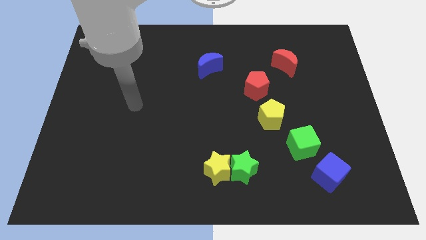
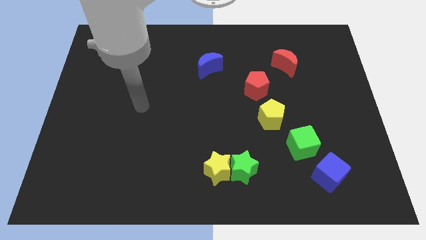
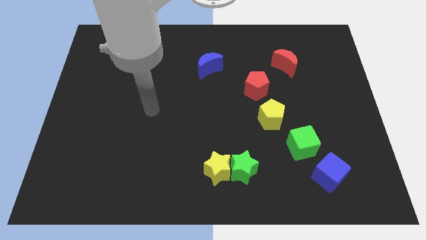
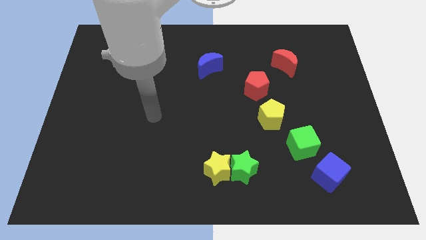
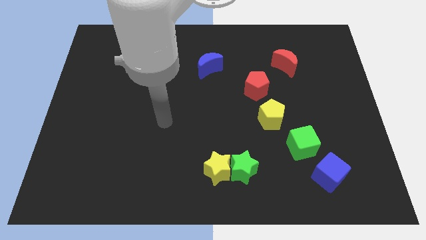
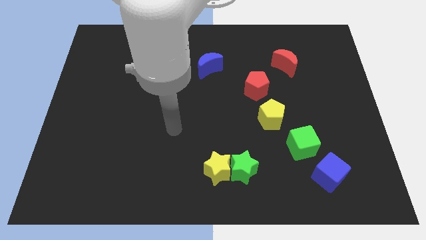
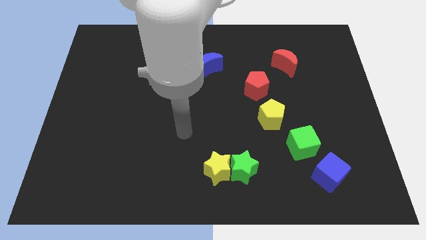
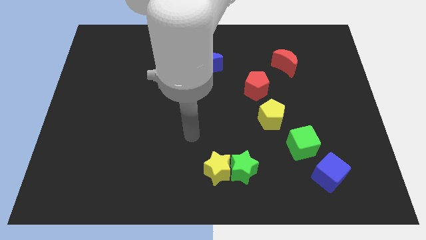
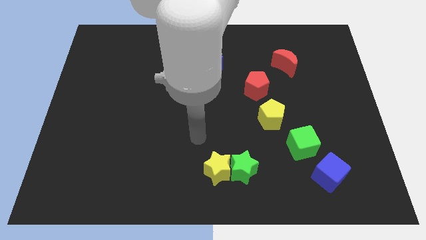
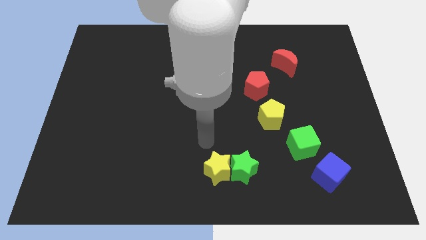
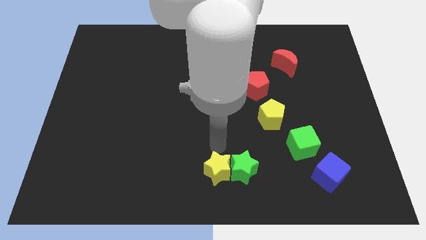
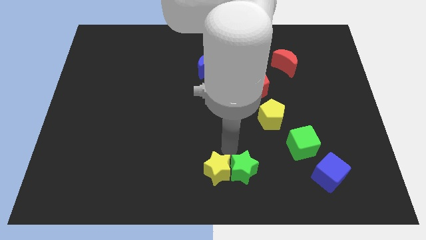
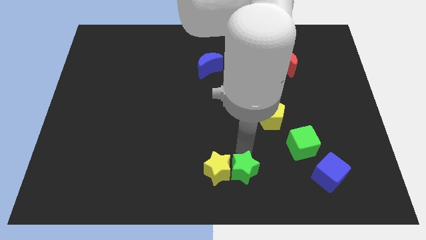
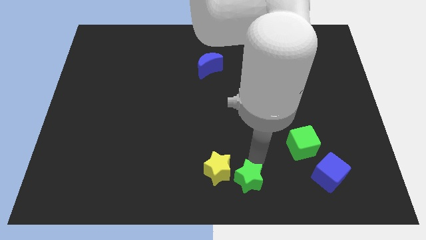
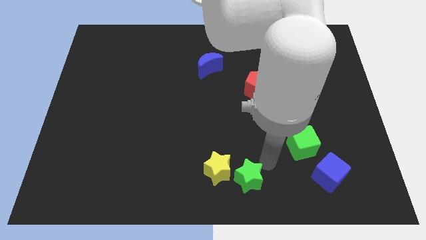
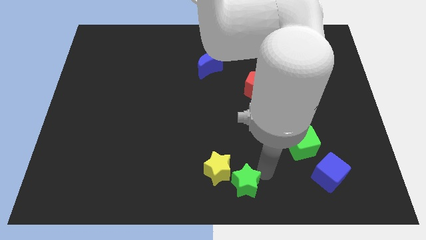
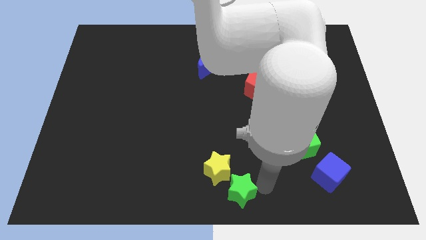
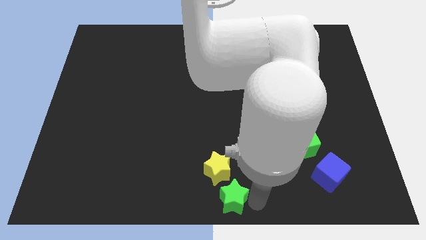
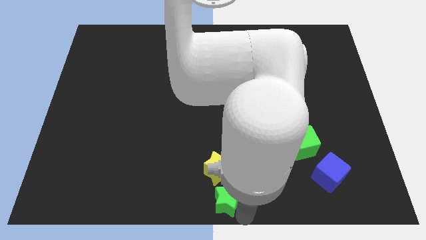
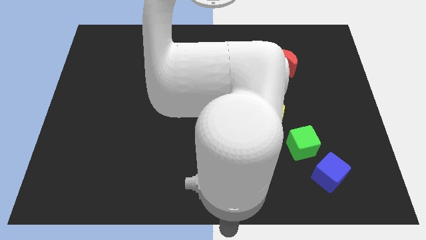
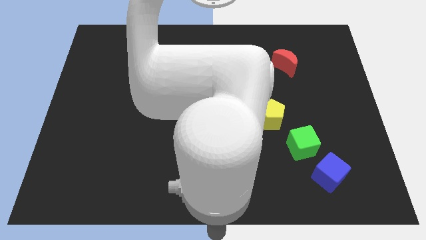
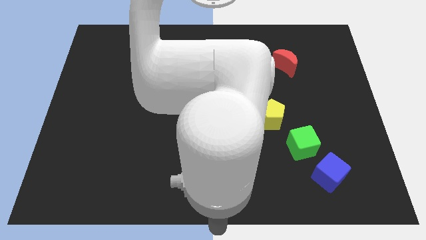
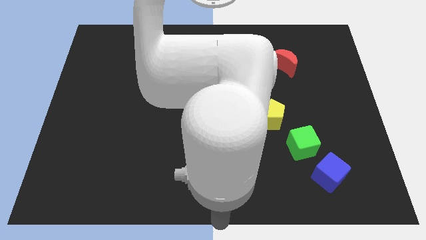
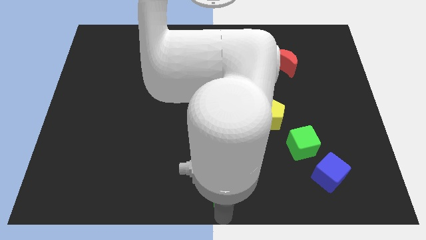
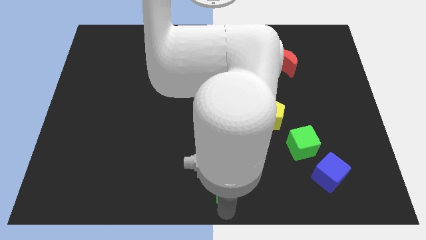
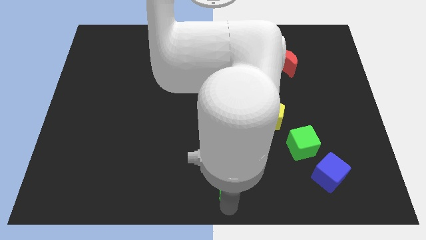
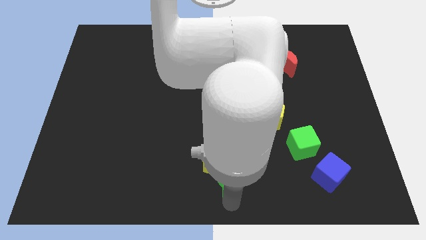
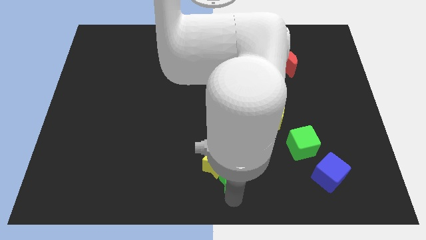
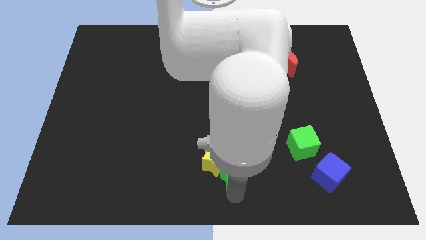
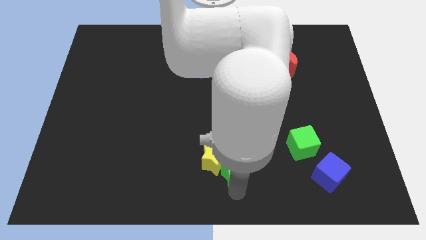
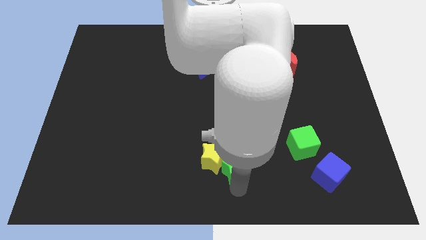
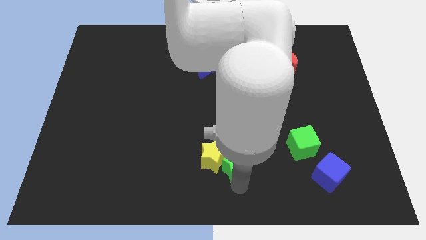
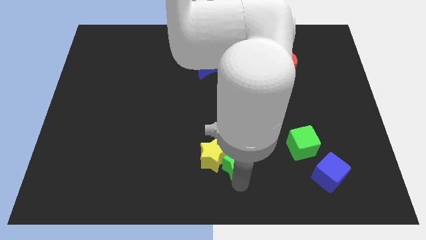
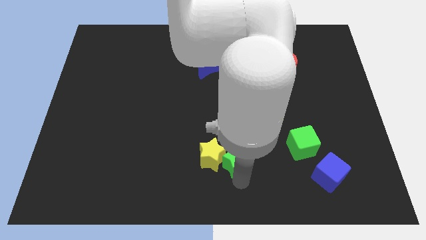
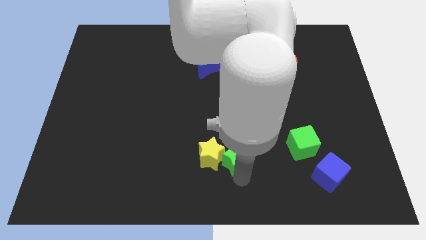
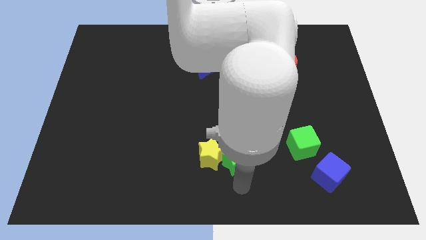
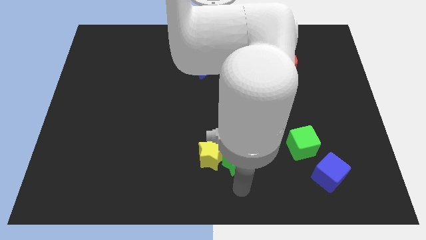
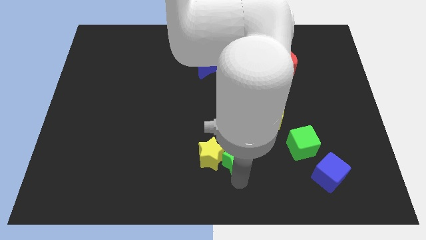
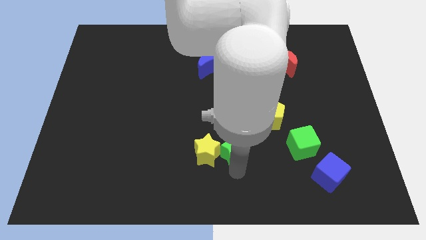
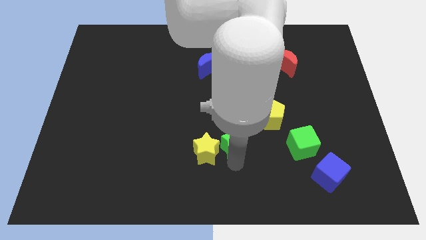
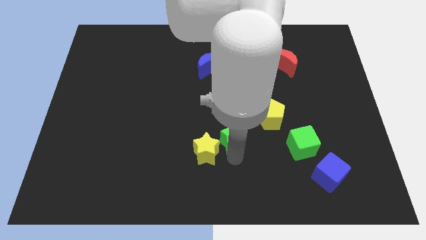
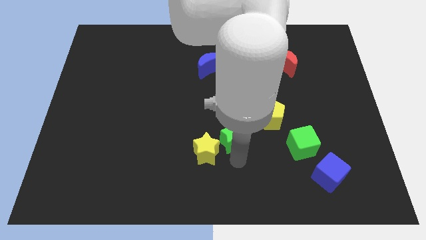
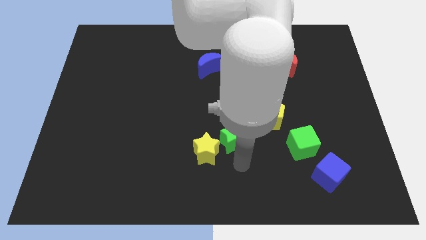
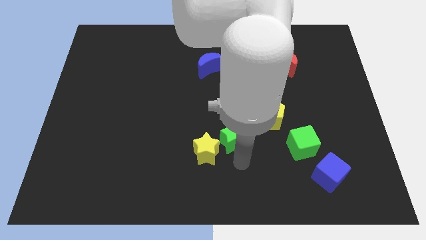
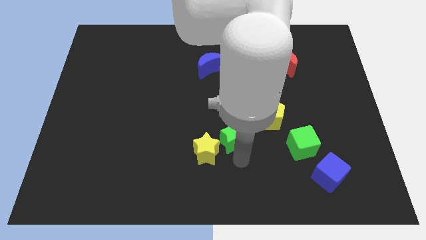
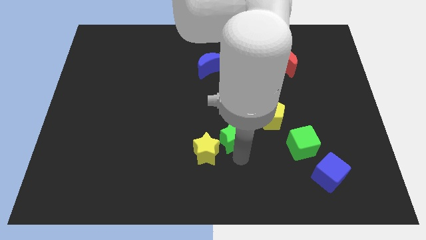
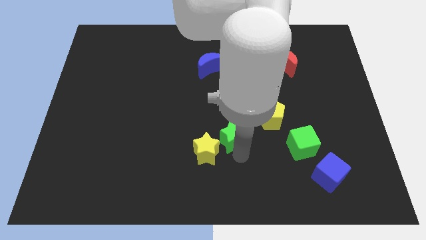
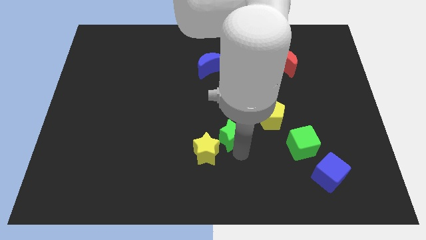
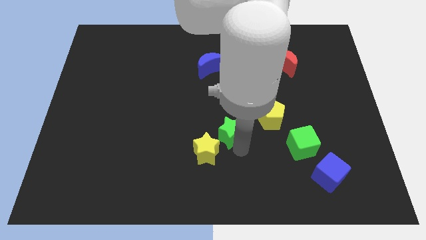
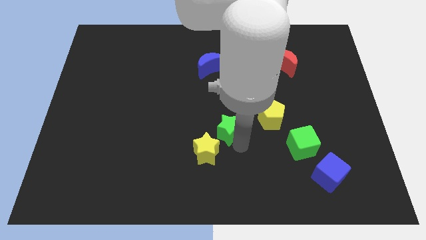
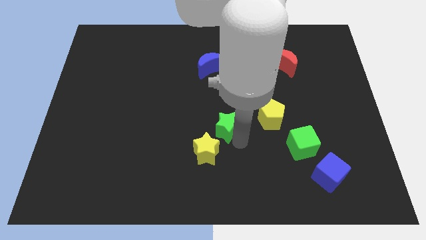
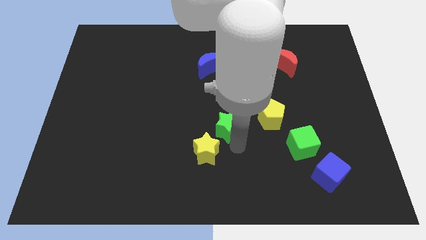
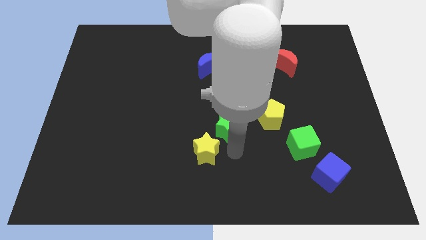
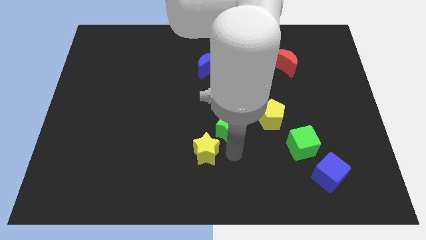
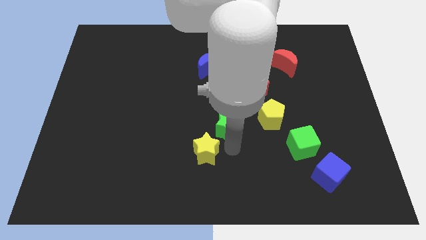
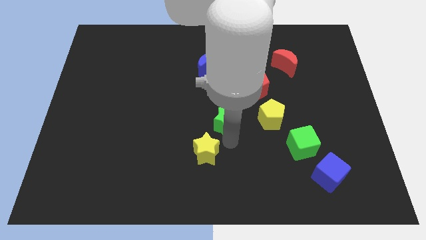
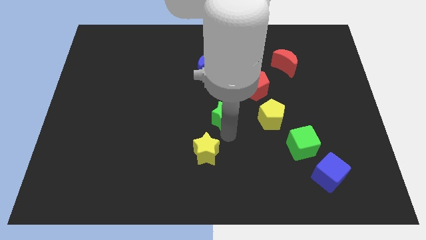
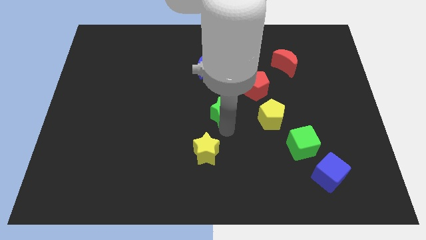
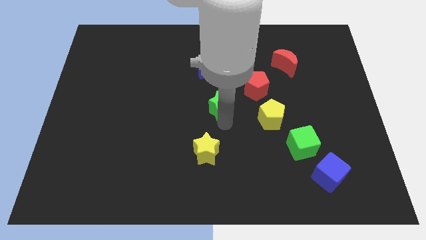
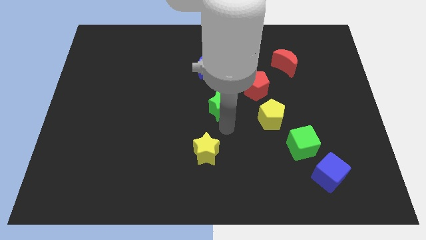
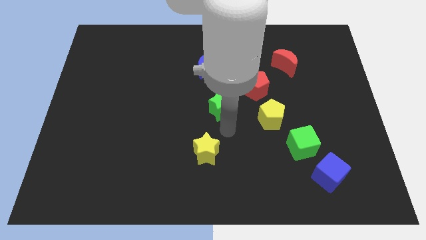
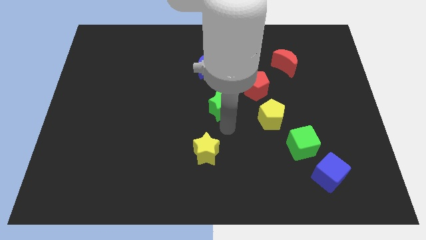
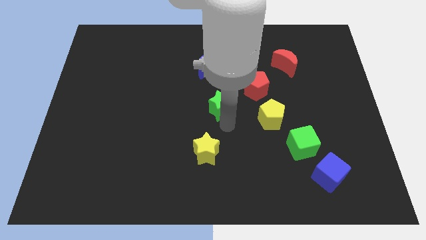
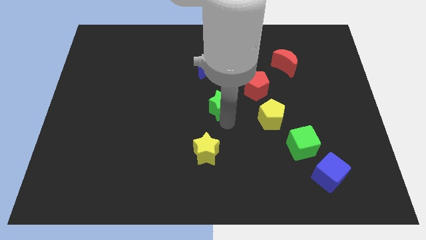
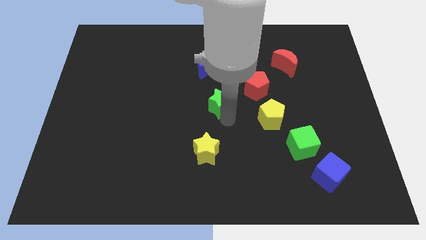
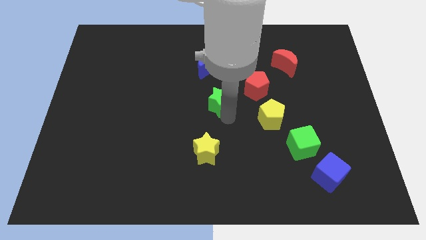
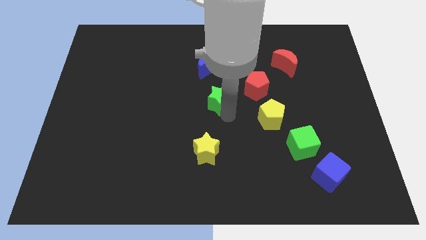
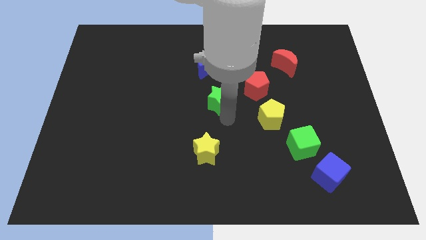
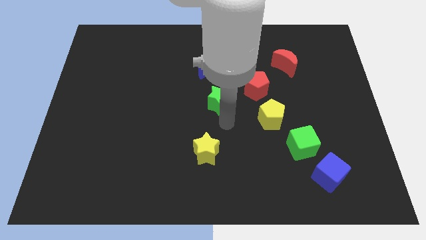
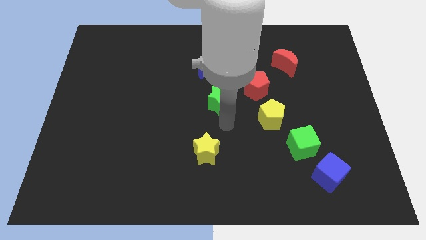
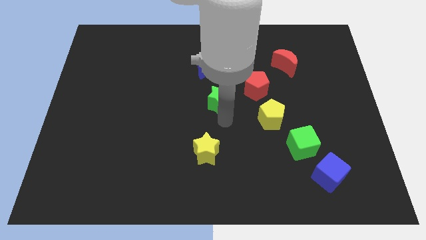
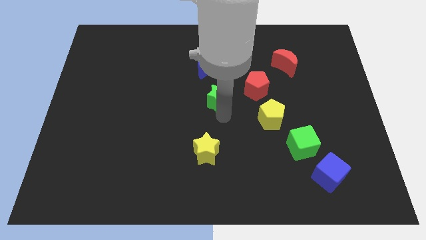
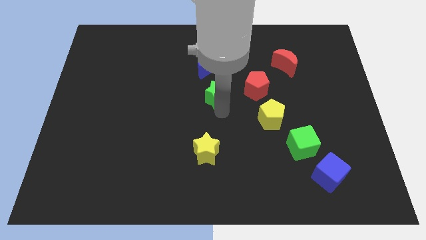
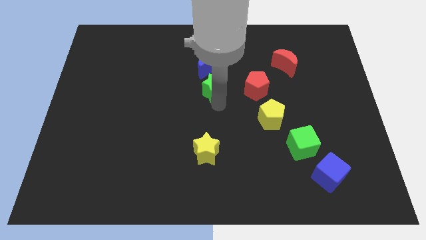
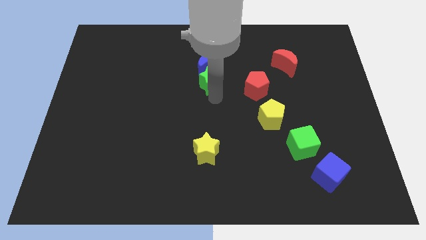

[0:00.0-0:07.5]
slide the green star next to the blue moon
